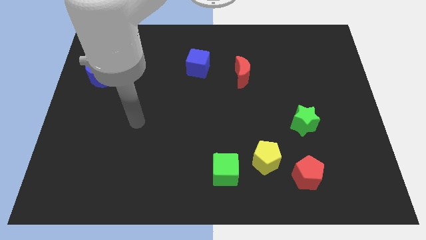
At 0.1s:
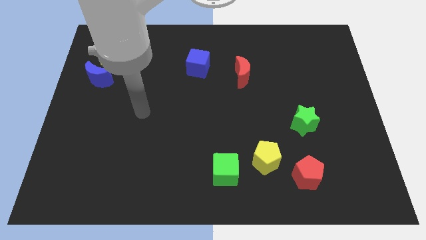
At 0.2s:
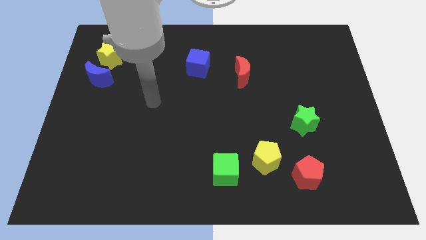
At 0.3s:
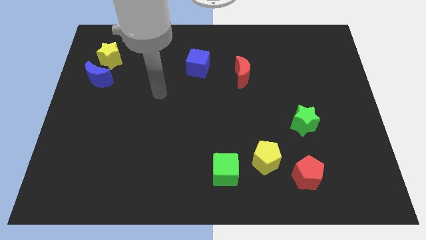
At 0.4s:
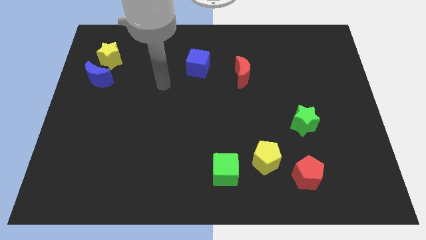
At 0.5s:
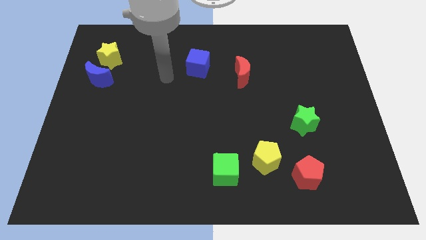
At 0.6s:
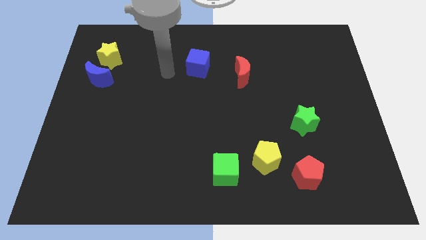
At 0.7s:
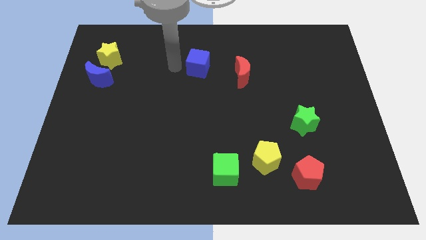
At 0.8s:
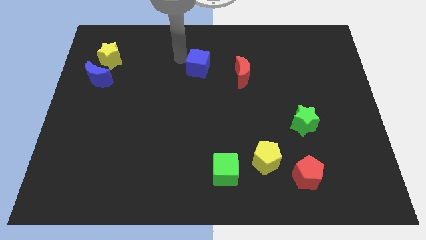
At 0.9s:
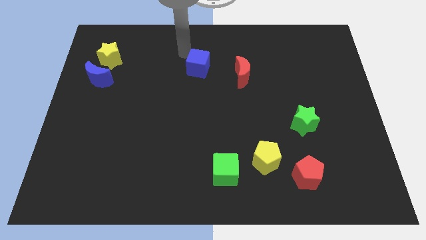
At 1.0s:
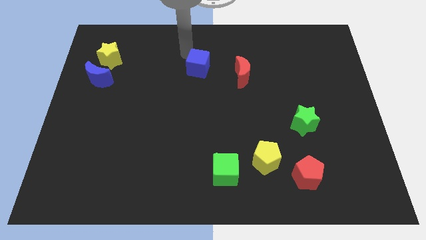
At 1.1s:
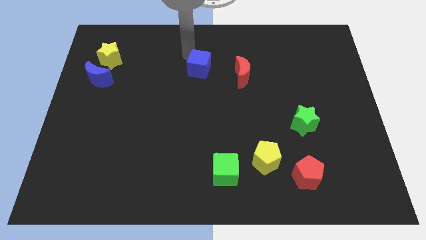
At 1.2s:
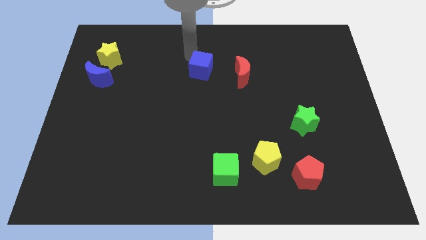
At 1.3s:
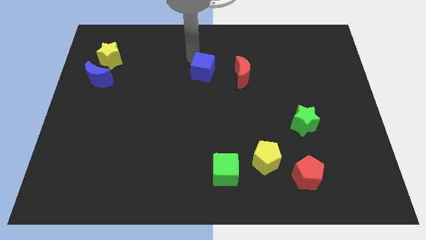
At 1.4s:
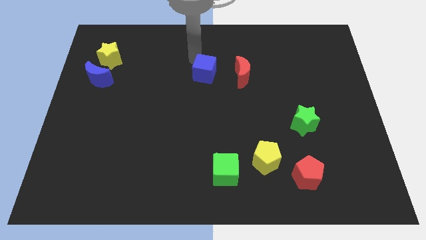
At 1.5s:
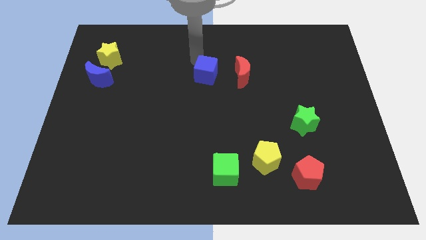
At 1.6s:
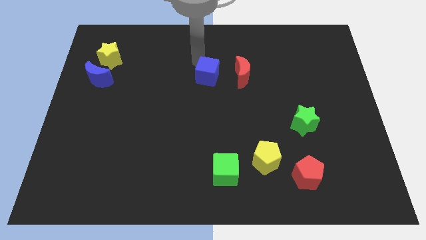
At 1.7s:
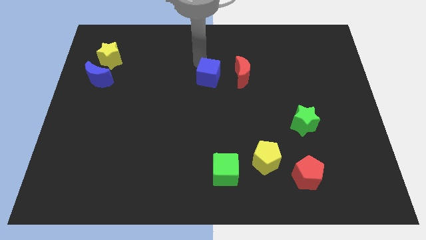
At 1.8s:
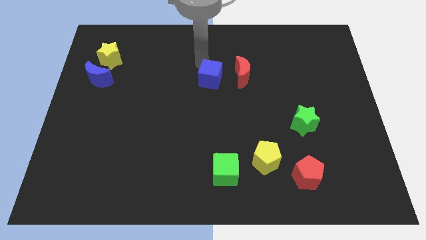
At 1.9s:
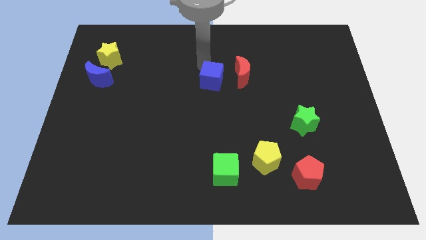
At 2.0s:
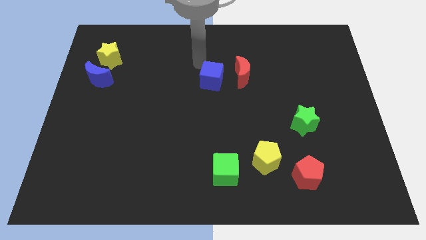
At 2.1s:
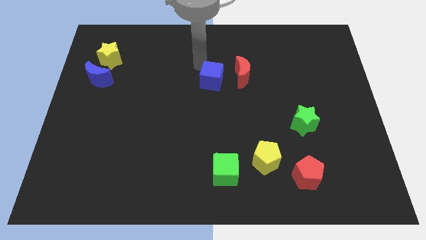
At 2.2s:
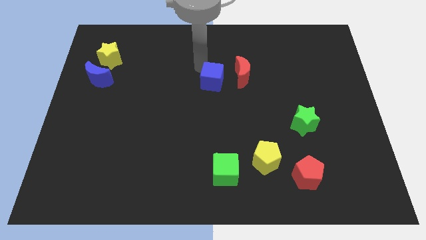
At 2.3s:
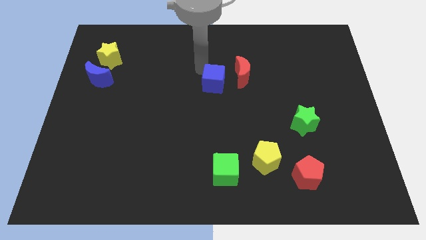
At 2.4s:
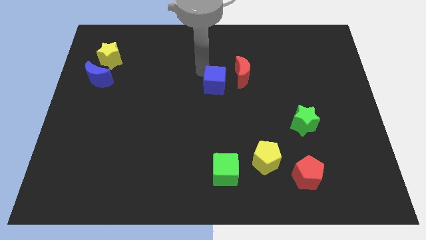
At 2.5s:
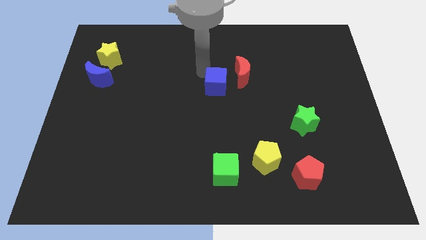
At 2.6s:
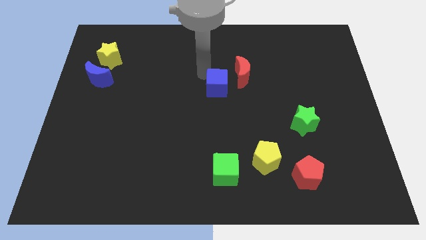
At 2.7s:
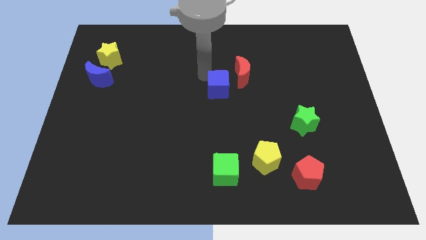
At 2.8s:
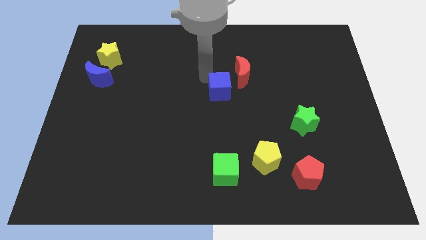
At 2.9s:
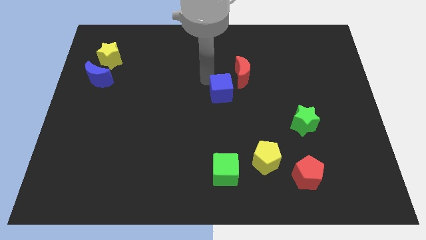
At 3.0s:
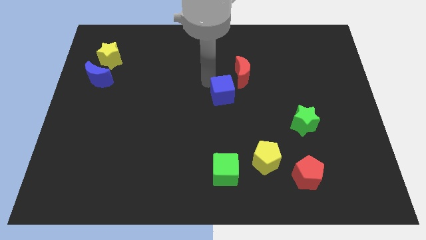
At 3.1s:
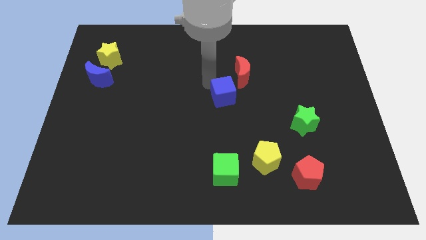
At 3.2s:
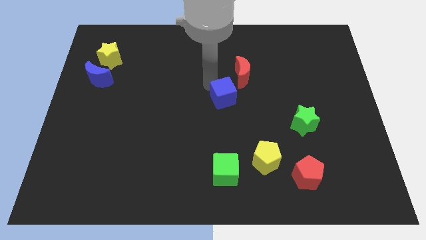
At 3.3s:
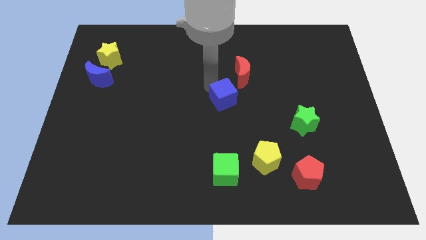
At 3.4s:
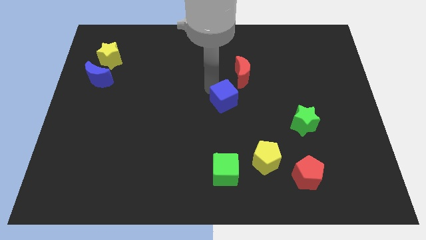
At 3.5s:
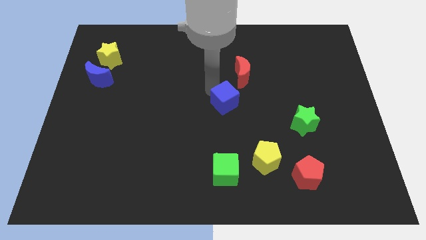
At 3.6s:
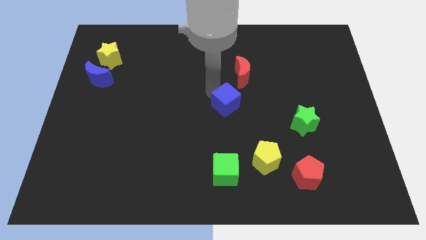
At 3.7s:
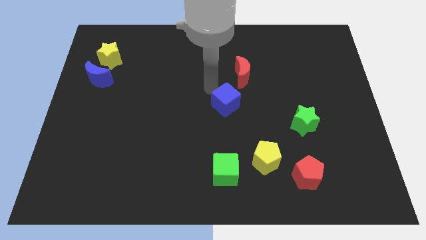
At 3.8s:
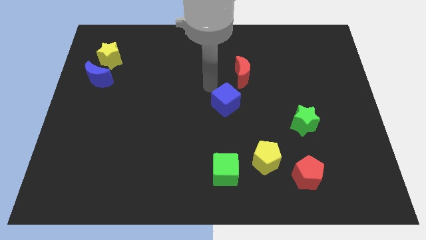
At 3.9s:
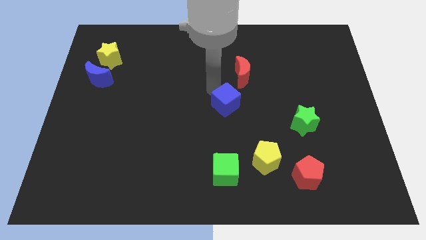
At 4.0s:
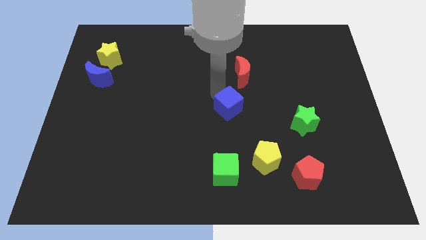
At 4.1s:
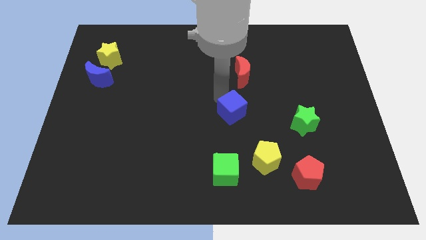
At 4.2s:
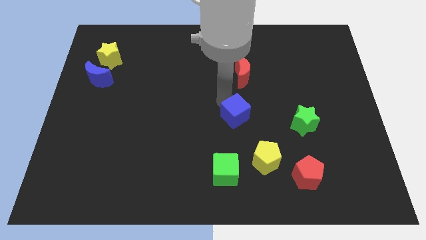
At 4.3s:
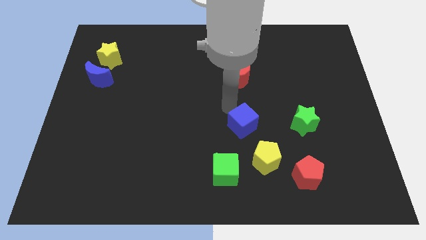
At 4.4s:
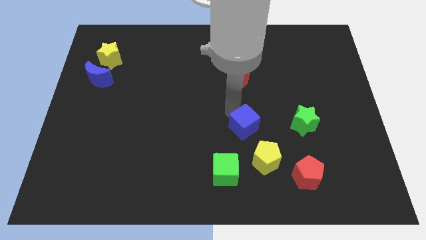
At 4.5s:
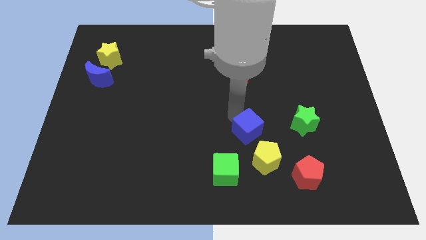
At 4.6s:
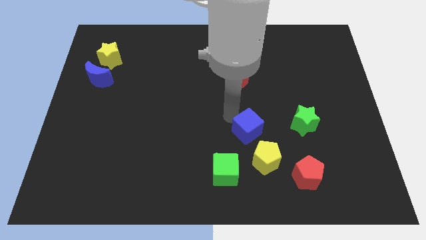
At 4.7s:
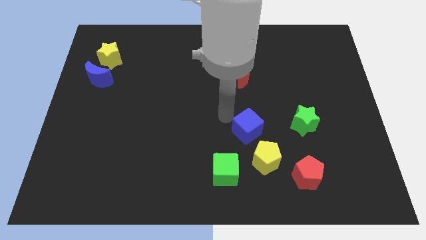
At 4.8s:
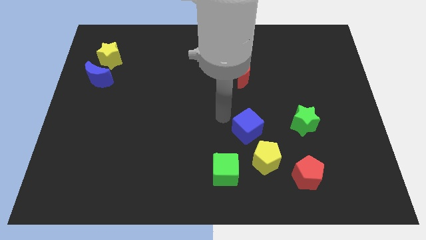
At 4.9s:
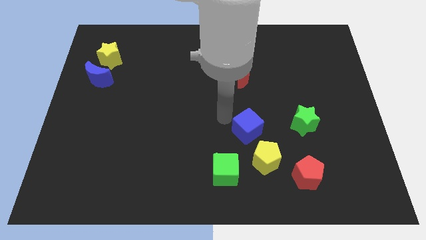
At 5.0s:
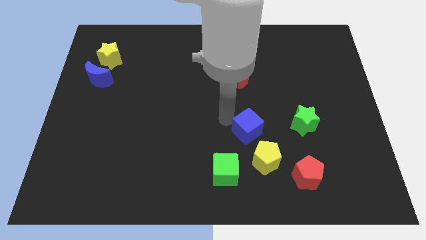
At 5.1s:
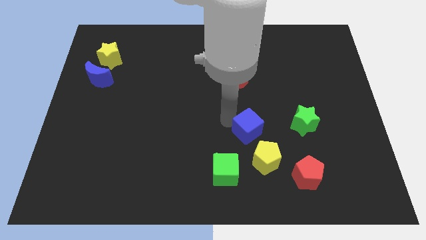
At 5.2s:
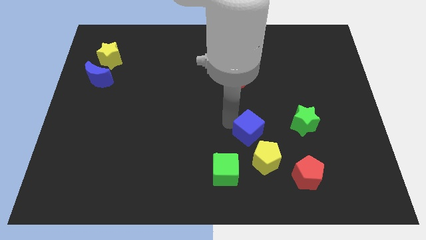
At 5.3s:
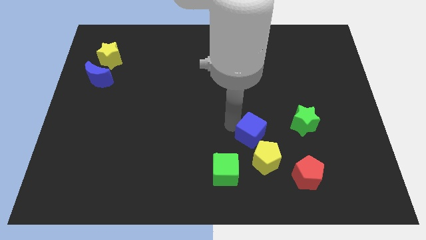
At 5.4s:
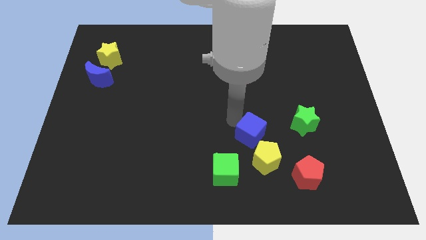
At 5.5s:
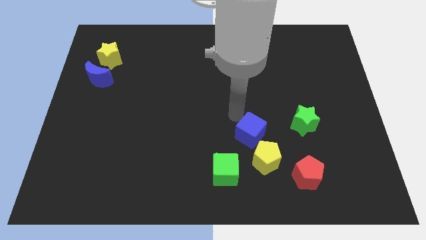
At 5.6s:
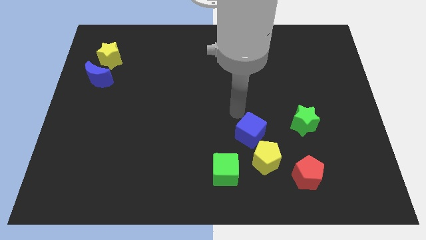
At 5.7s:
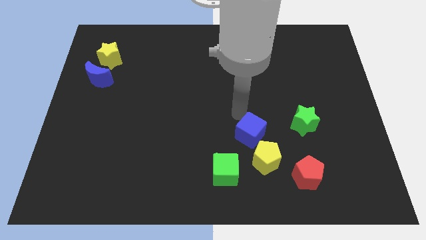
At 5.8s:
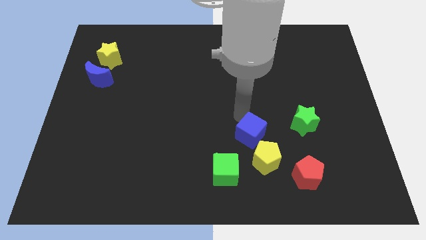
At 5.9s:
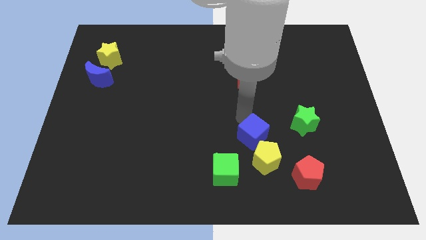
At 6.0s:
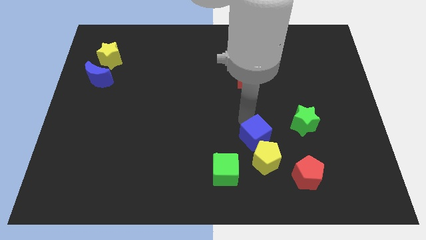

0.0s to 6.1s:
move the blue cube towards the yellow pentagon

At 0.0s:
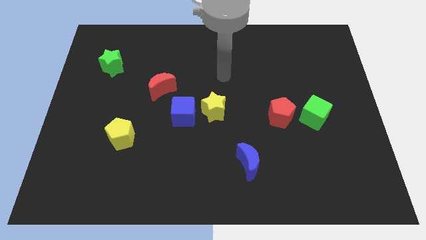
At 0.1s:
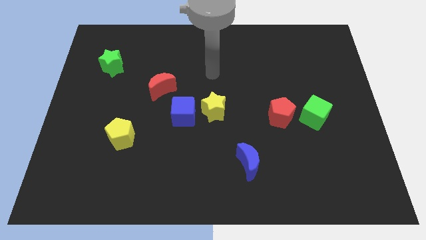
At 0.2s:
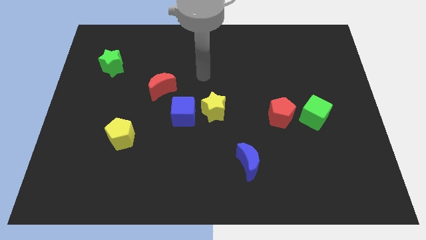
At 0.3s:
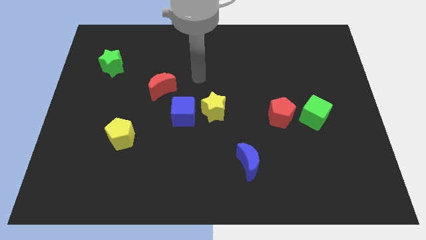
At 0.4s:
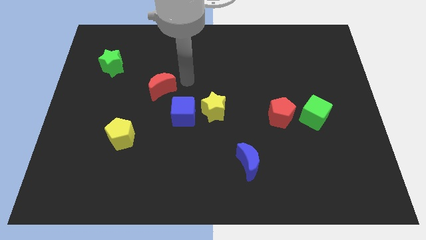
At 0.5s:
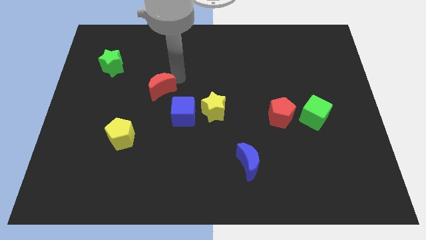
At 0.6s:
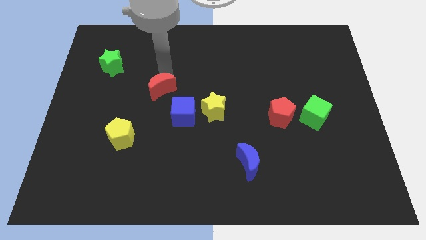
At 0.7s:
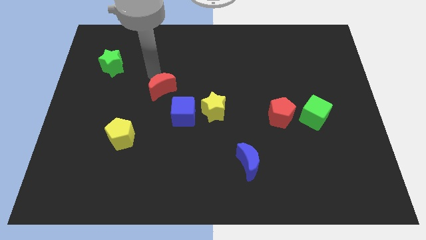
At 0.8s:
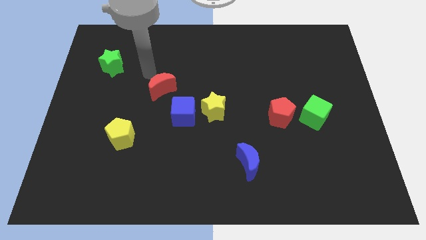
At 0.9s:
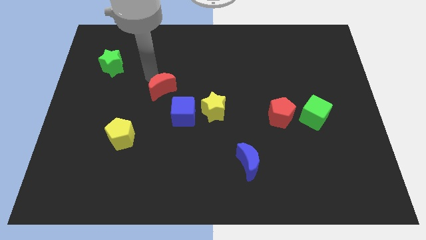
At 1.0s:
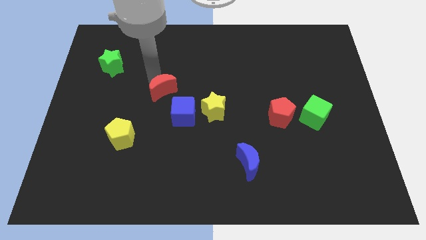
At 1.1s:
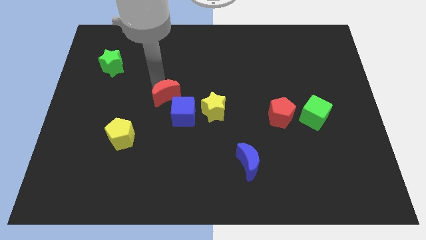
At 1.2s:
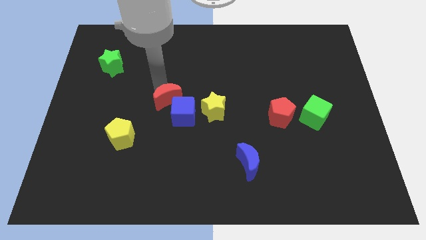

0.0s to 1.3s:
put the red moon to the blue cube
